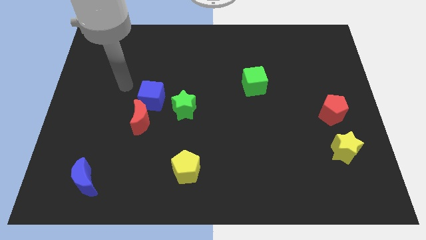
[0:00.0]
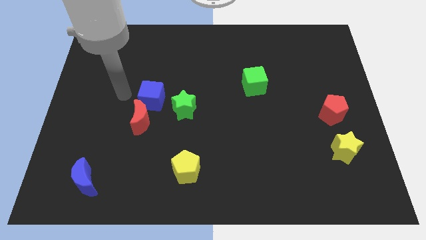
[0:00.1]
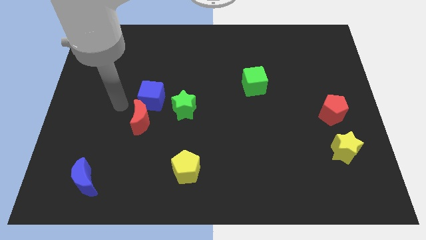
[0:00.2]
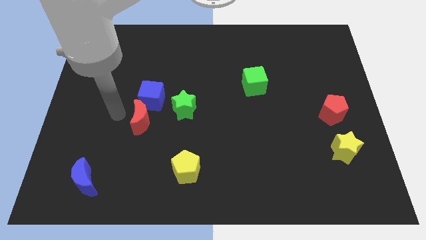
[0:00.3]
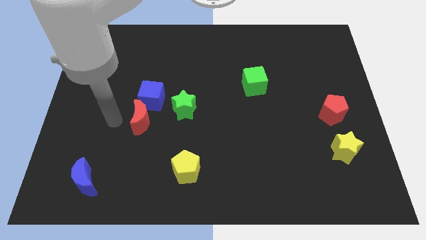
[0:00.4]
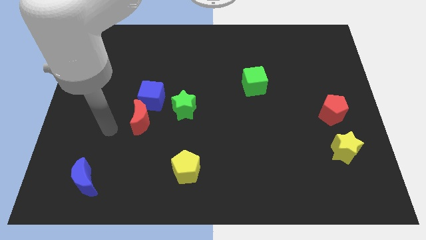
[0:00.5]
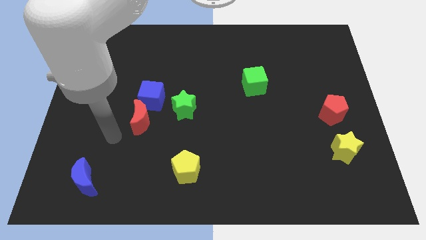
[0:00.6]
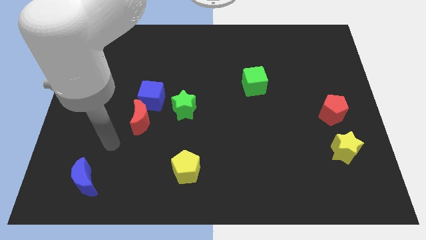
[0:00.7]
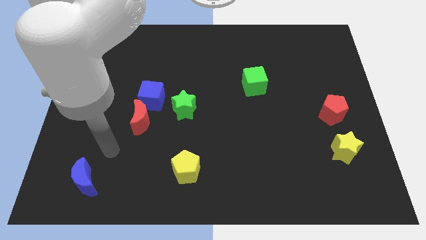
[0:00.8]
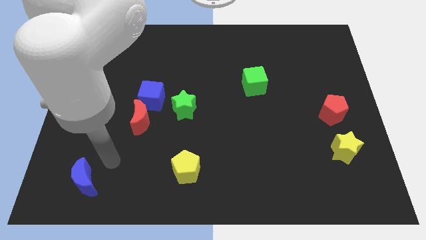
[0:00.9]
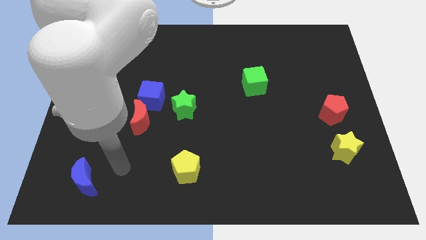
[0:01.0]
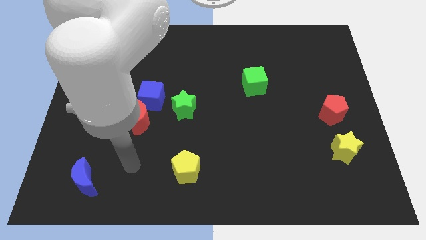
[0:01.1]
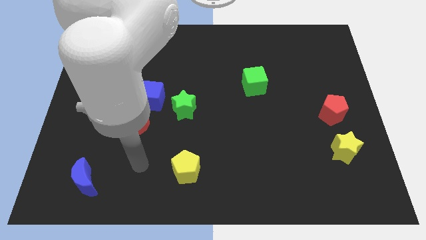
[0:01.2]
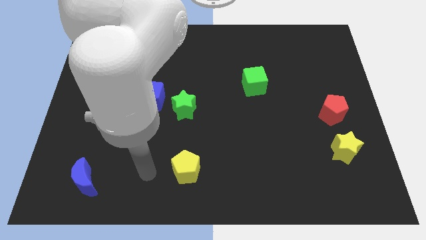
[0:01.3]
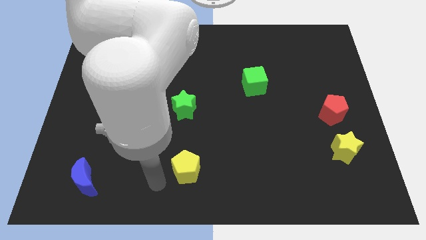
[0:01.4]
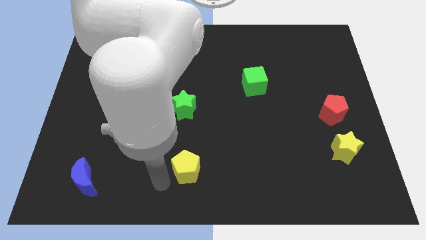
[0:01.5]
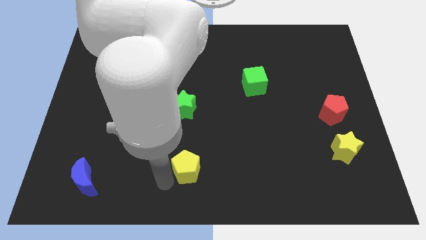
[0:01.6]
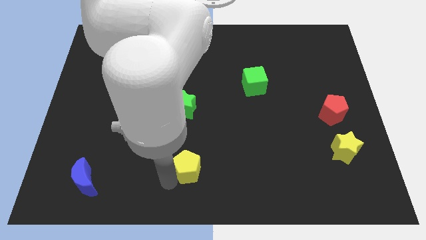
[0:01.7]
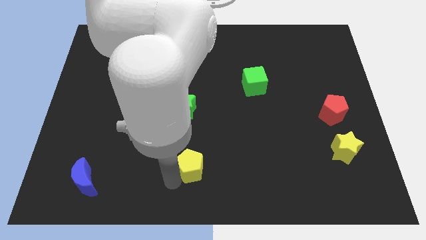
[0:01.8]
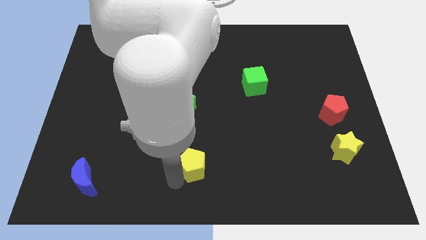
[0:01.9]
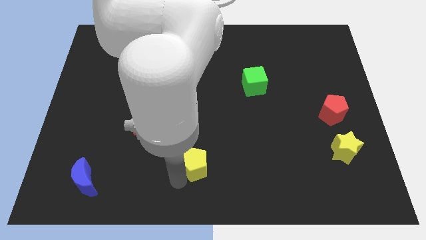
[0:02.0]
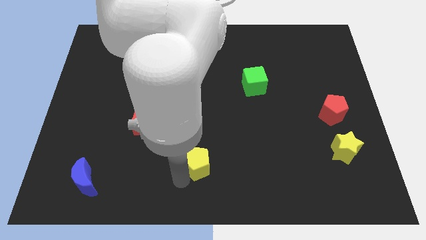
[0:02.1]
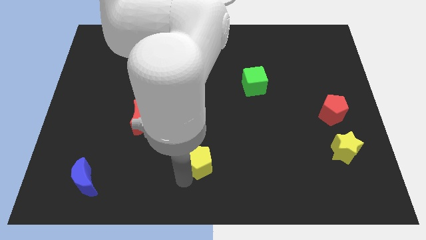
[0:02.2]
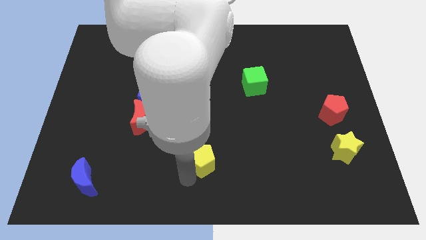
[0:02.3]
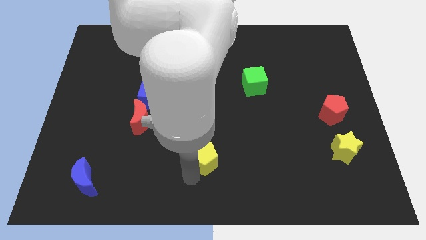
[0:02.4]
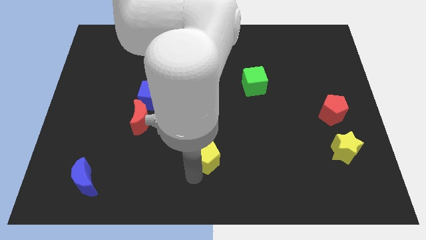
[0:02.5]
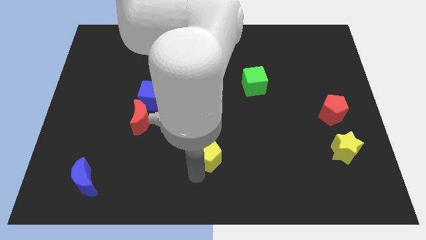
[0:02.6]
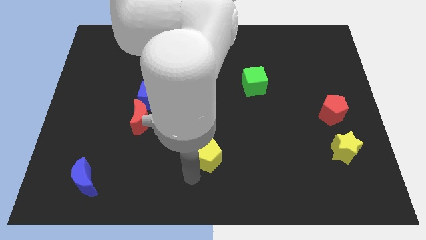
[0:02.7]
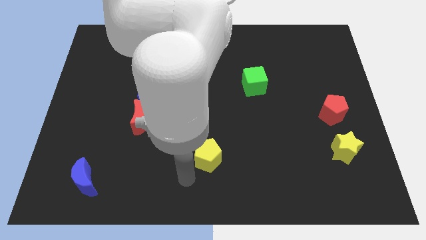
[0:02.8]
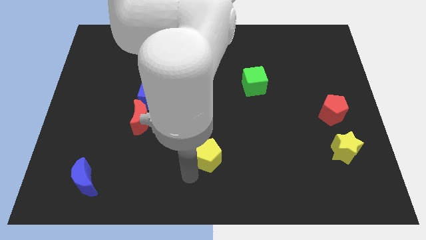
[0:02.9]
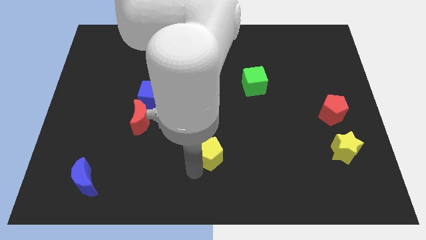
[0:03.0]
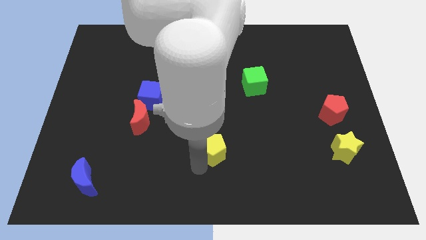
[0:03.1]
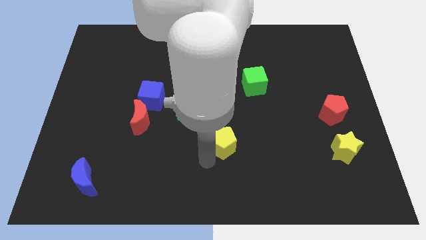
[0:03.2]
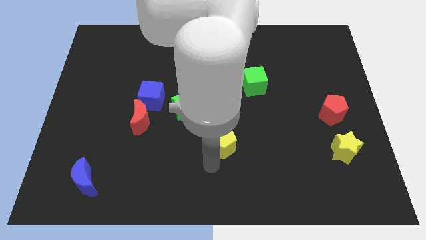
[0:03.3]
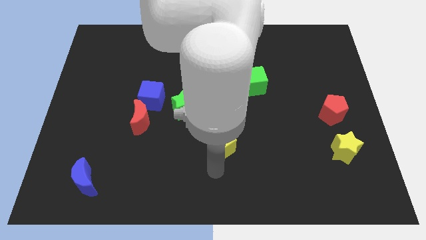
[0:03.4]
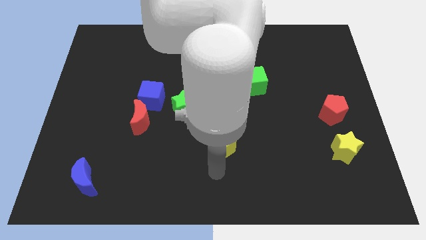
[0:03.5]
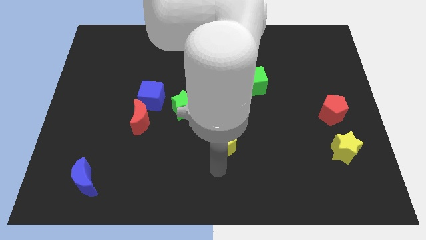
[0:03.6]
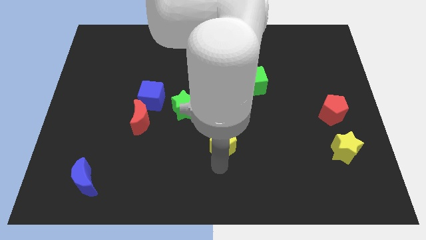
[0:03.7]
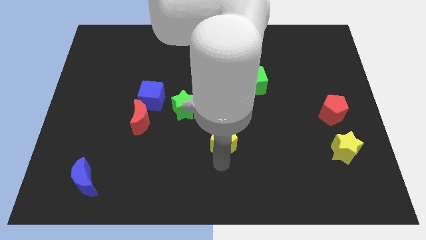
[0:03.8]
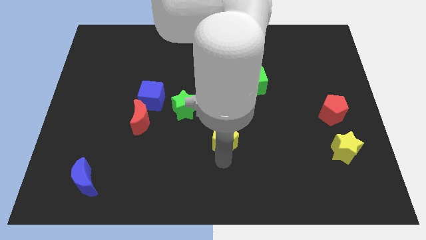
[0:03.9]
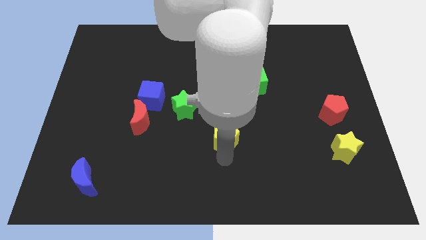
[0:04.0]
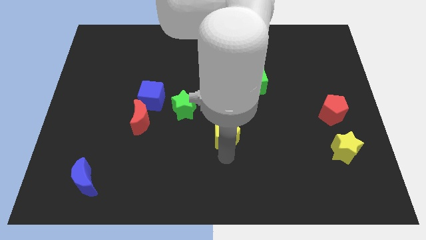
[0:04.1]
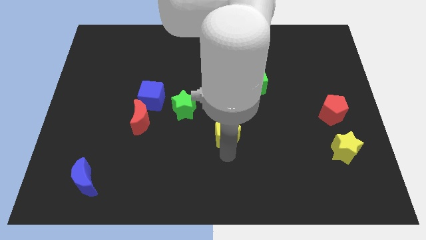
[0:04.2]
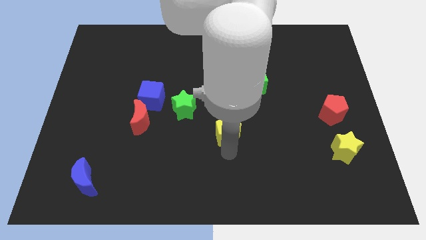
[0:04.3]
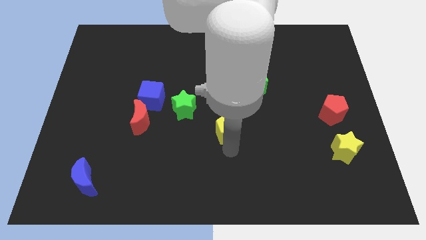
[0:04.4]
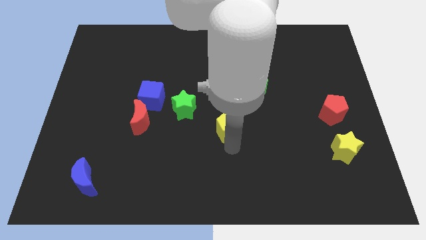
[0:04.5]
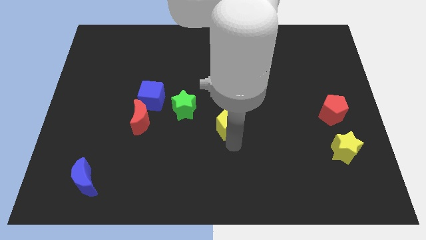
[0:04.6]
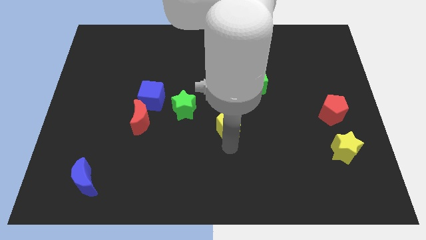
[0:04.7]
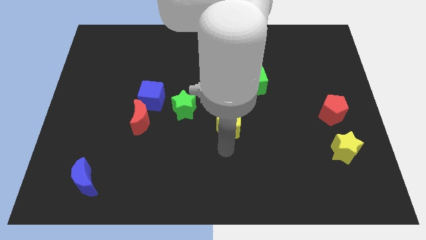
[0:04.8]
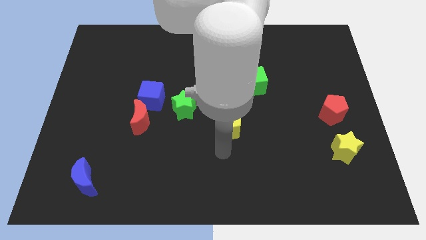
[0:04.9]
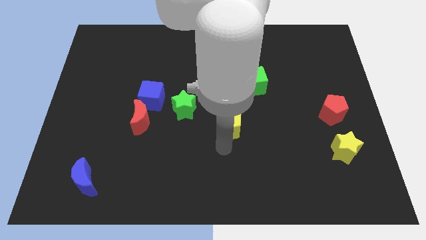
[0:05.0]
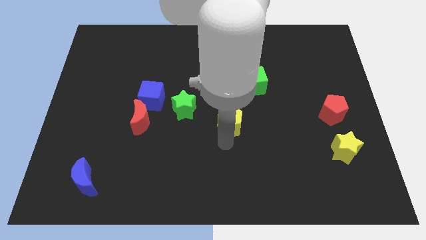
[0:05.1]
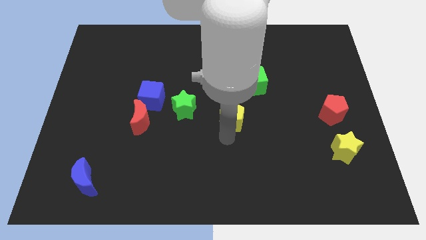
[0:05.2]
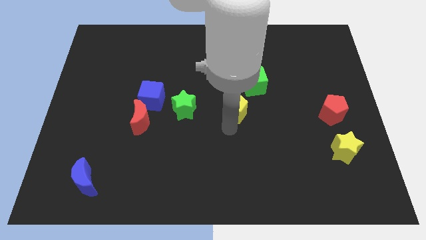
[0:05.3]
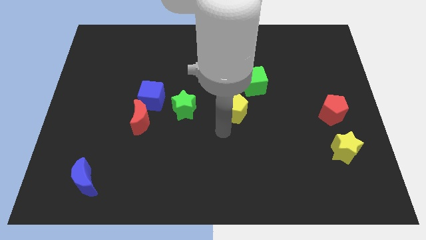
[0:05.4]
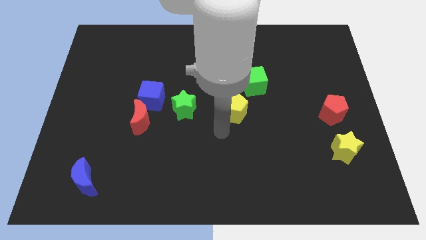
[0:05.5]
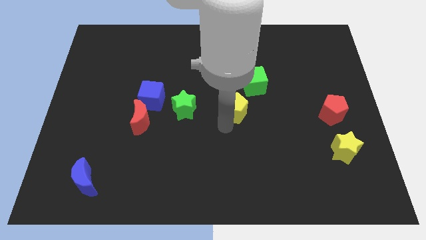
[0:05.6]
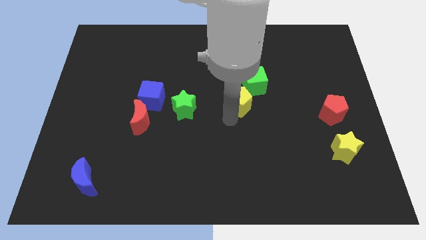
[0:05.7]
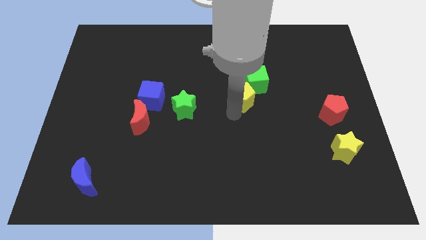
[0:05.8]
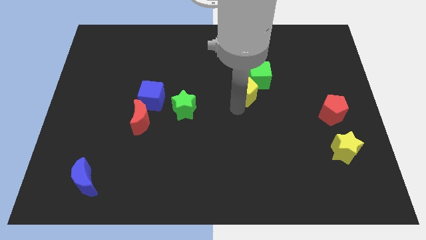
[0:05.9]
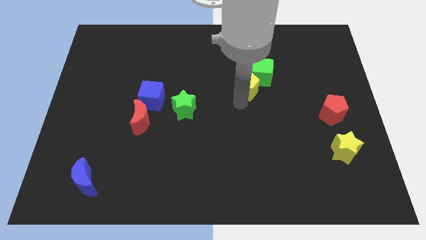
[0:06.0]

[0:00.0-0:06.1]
put the yellow pentagon to the green cube

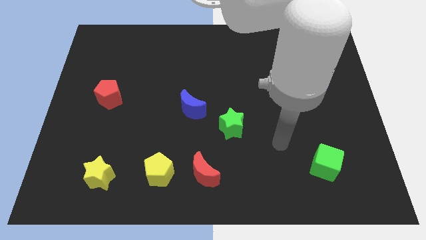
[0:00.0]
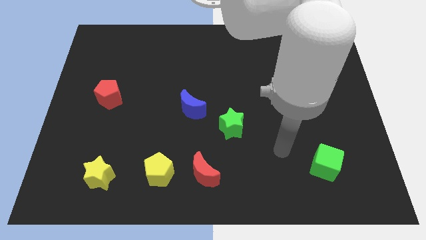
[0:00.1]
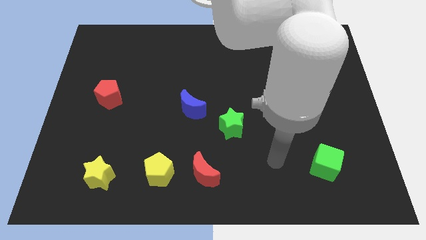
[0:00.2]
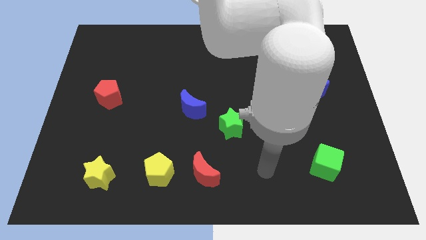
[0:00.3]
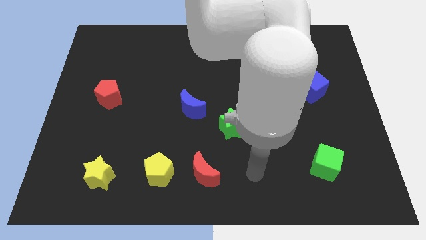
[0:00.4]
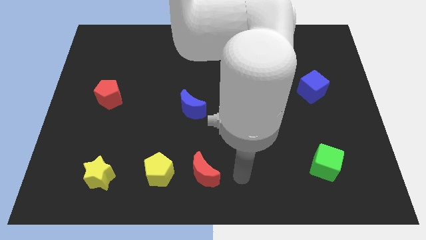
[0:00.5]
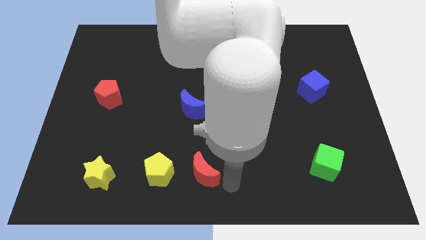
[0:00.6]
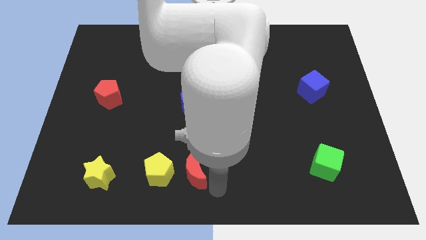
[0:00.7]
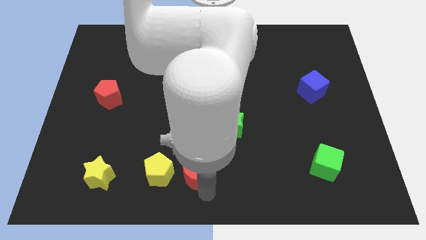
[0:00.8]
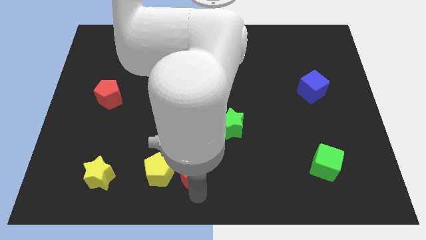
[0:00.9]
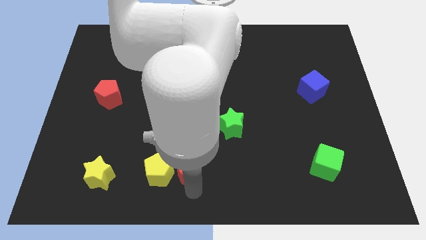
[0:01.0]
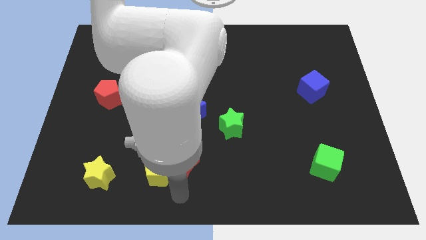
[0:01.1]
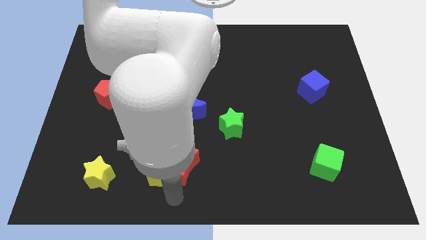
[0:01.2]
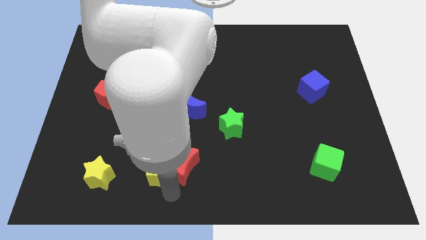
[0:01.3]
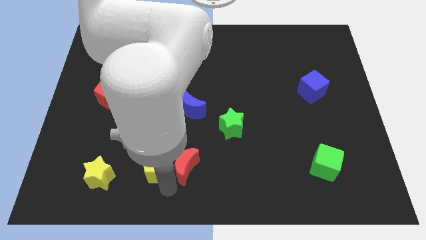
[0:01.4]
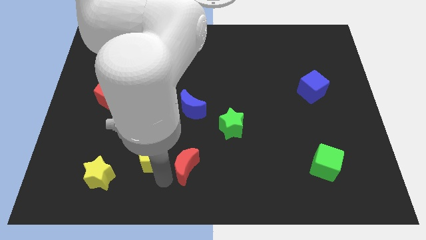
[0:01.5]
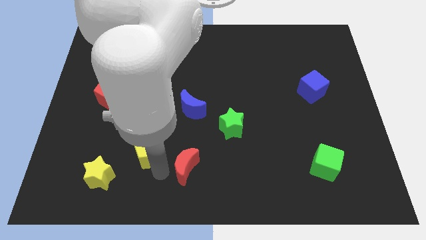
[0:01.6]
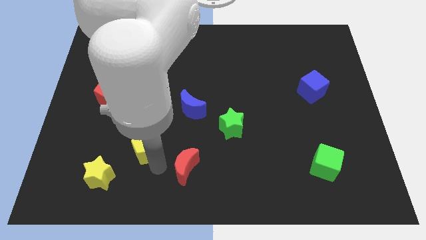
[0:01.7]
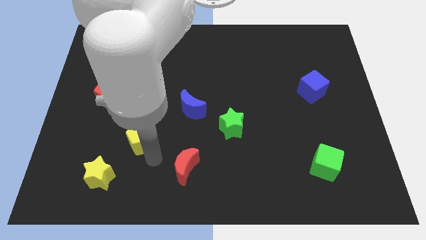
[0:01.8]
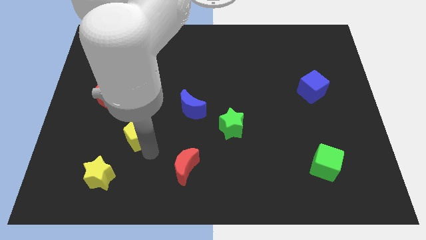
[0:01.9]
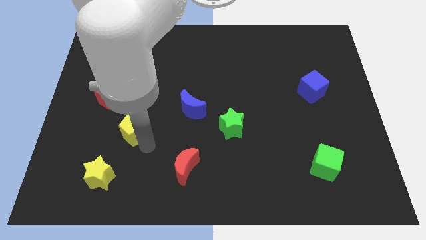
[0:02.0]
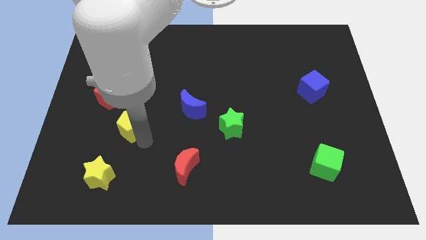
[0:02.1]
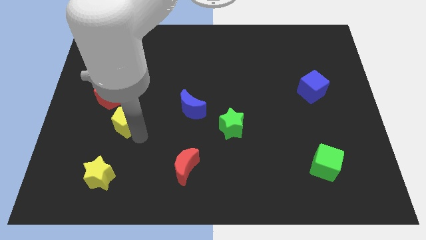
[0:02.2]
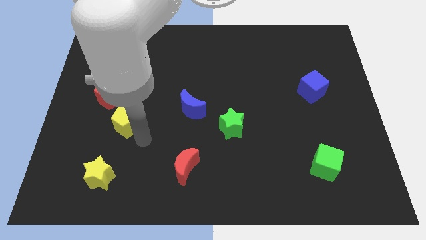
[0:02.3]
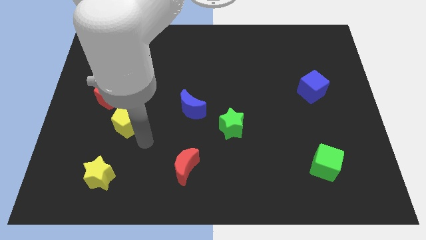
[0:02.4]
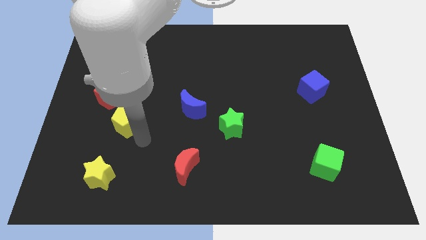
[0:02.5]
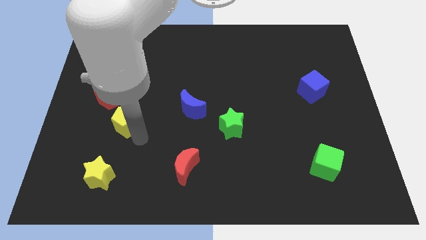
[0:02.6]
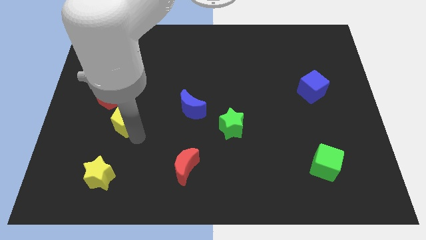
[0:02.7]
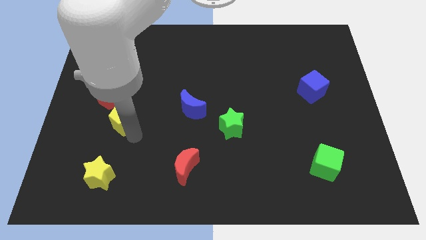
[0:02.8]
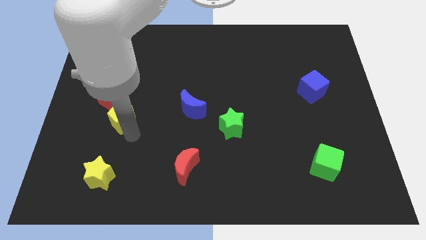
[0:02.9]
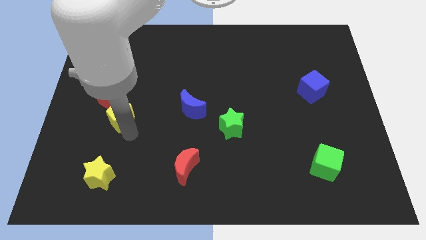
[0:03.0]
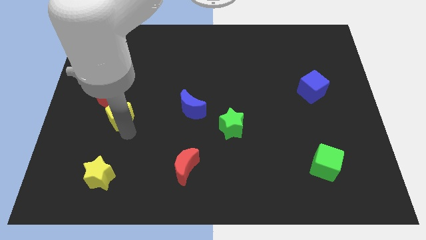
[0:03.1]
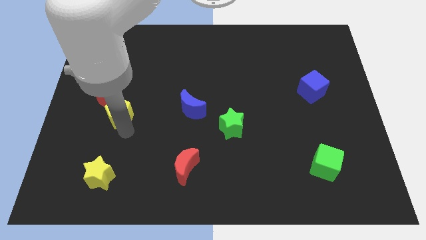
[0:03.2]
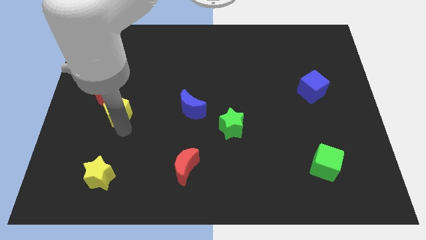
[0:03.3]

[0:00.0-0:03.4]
push the yellow pentagon close to the red pentagon
